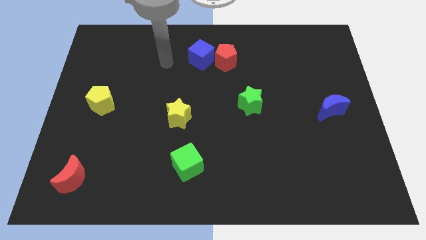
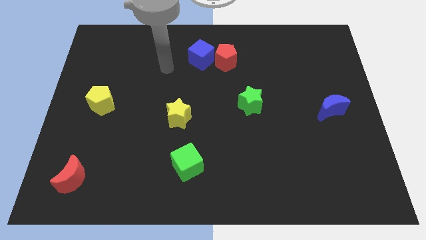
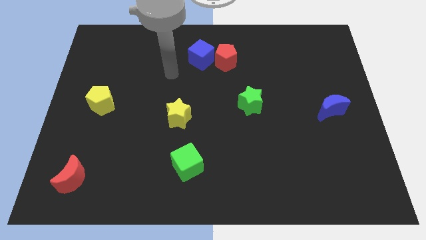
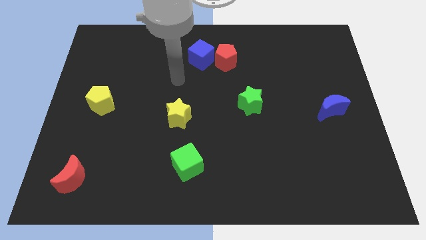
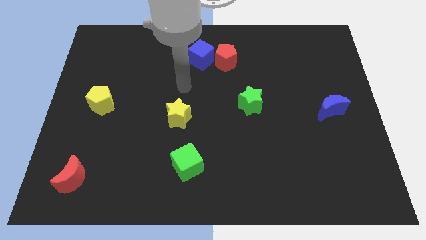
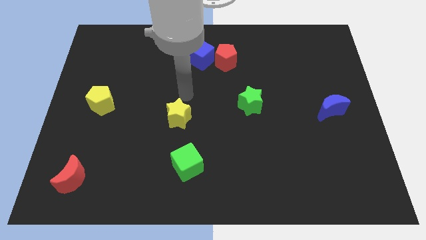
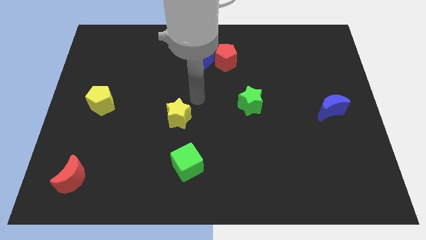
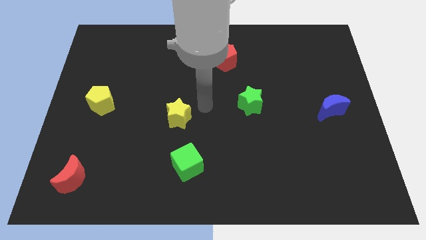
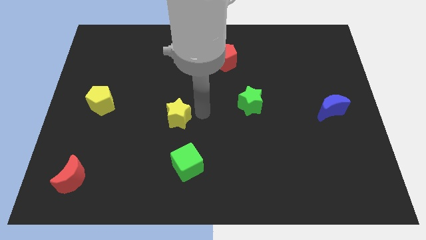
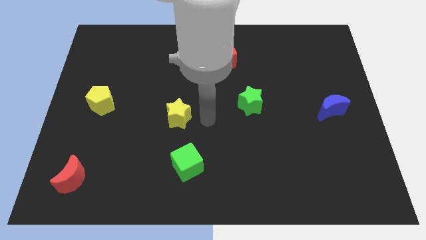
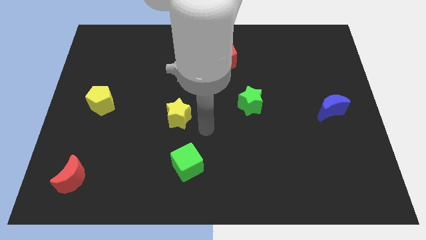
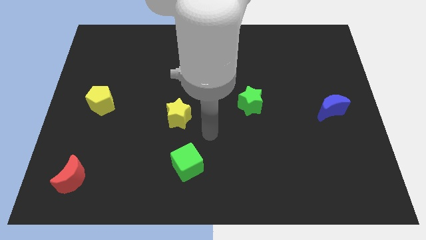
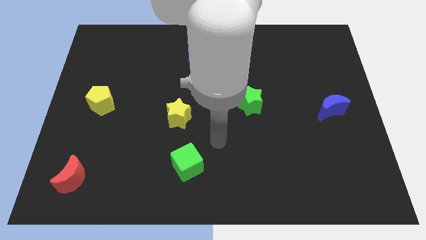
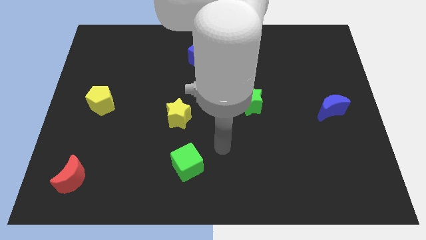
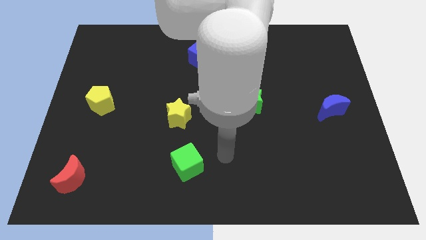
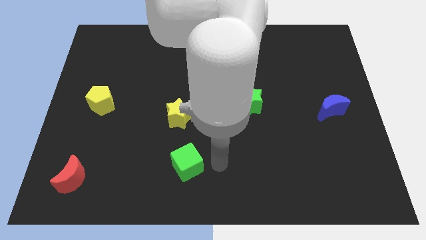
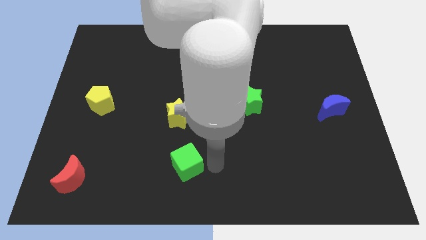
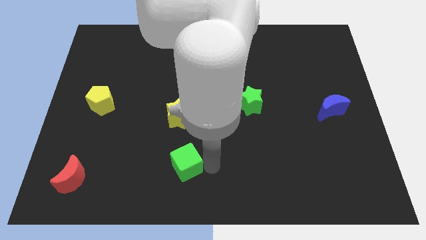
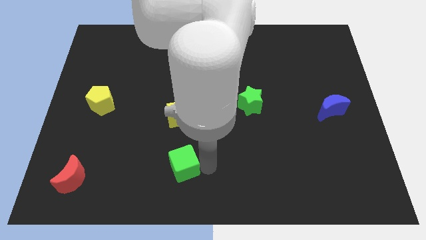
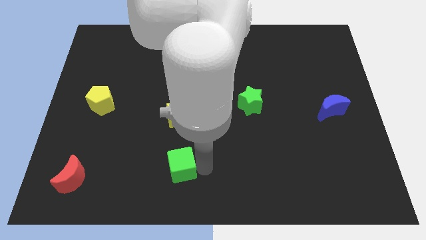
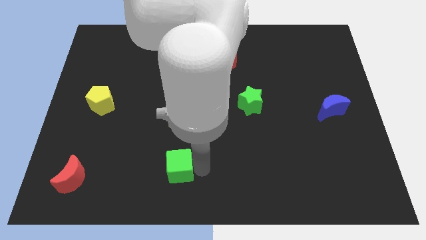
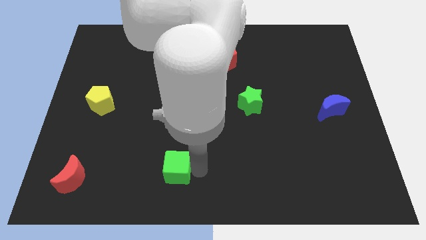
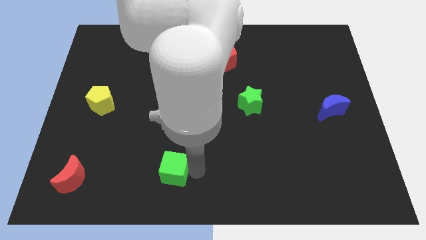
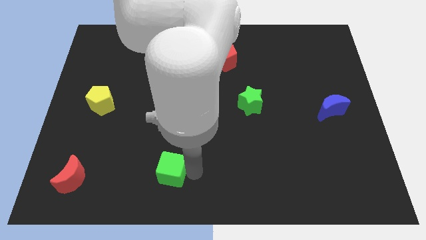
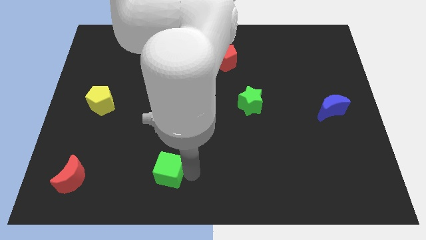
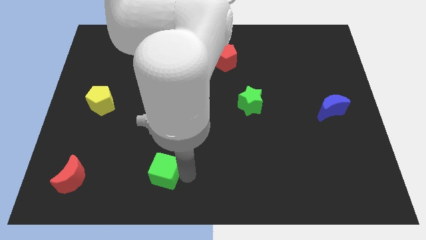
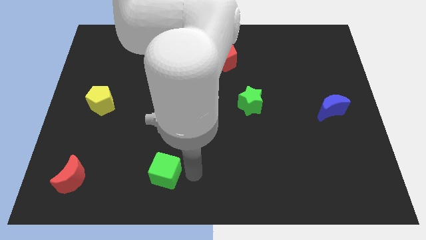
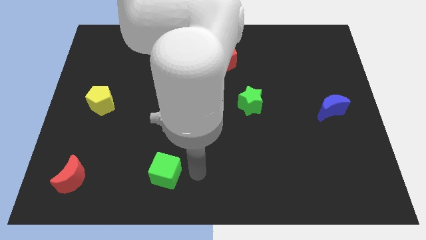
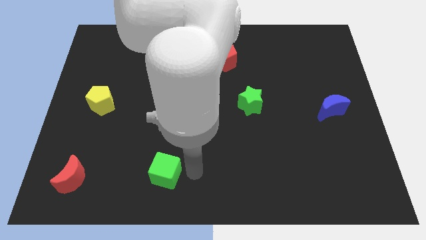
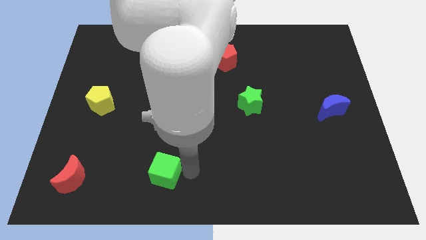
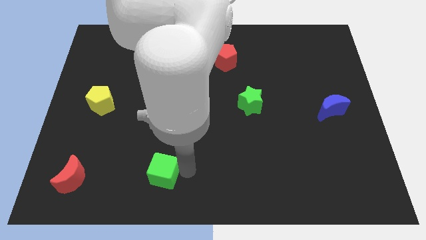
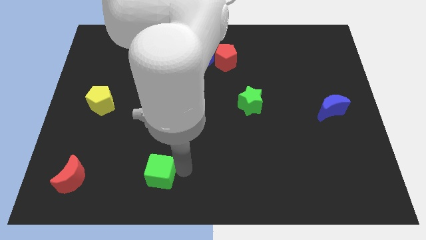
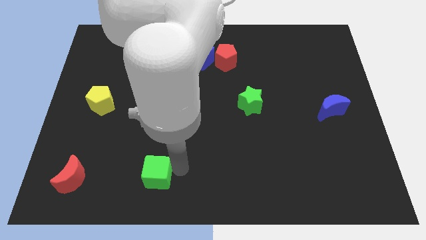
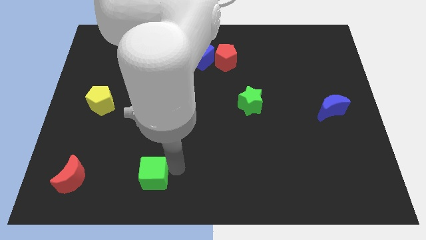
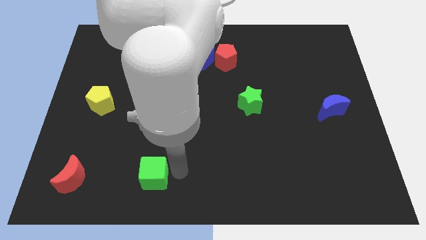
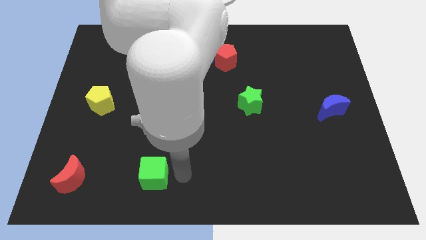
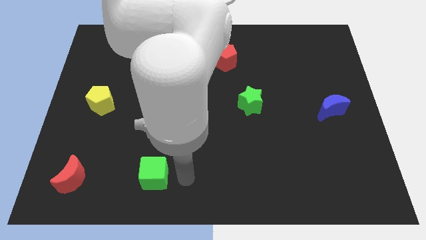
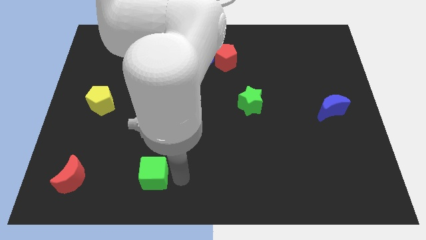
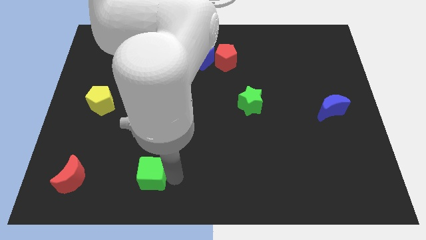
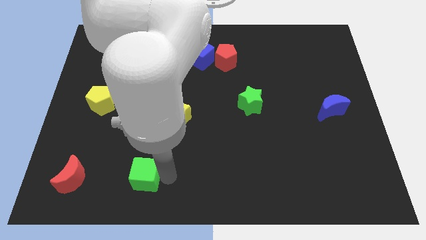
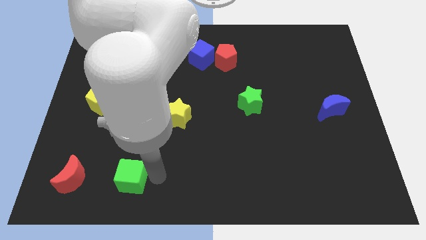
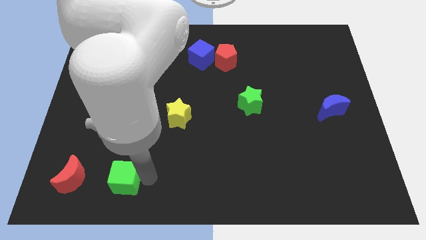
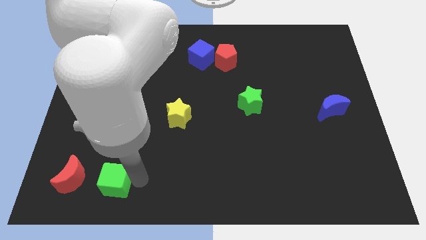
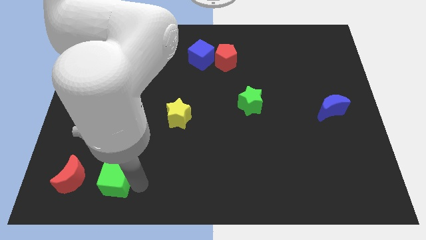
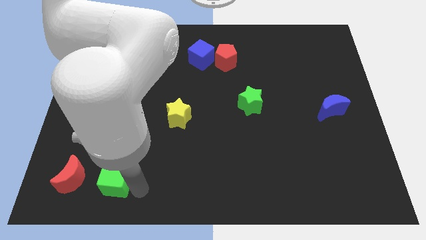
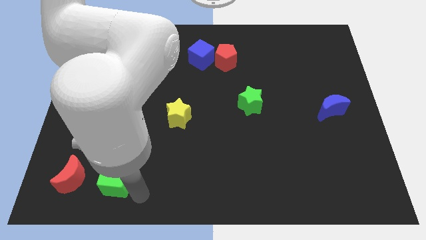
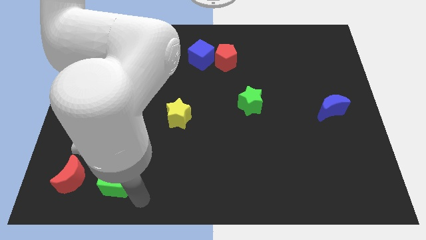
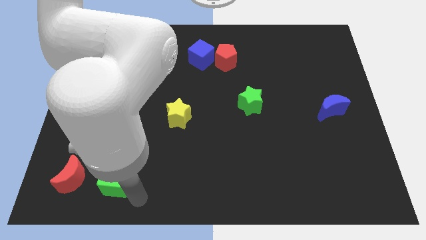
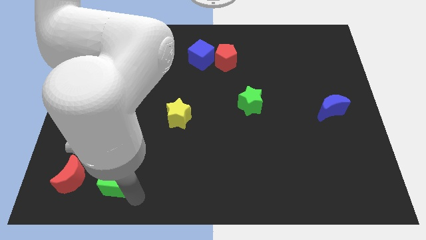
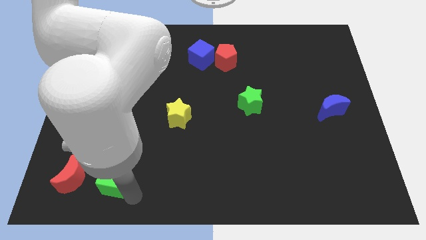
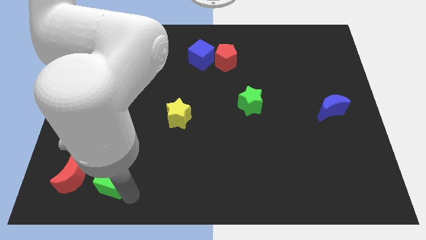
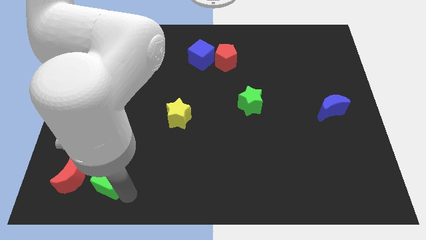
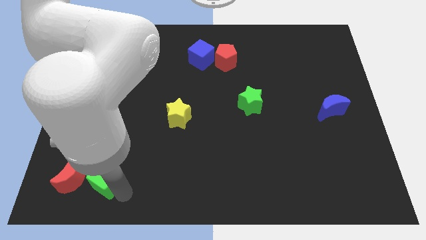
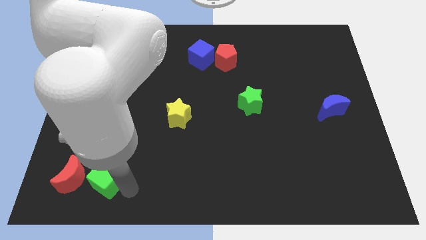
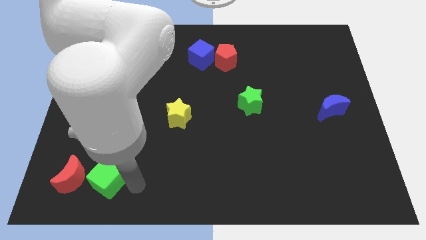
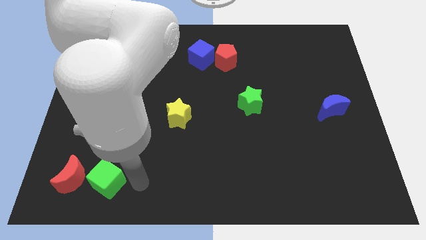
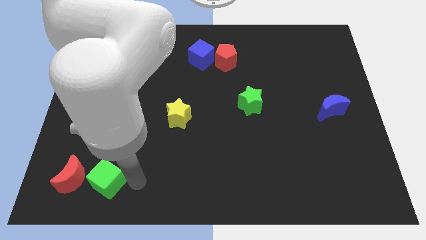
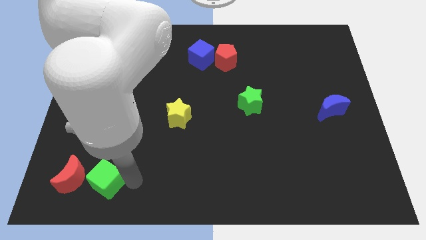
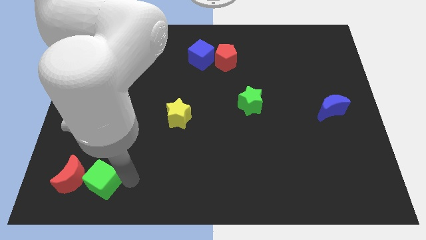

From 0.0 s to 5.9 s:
slide the green cube next to the red moon
